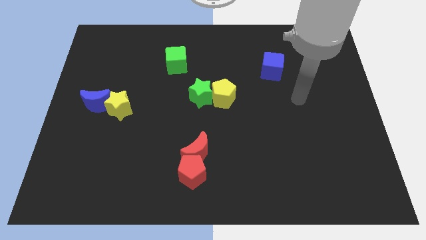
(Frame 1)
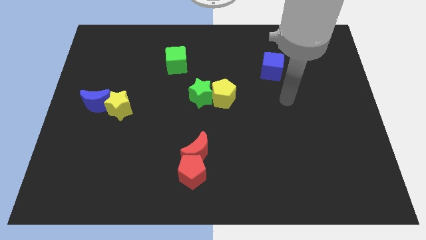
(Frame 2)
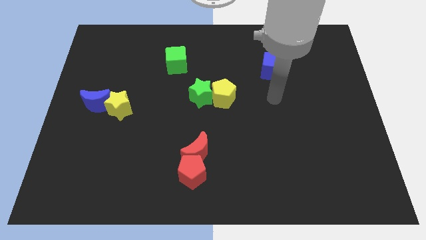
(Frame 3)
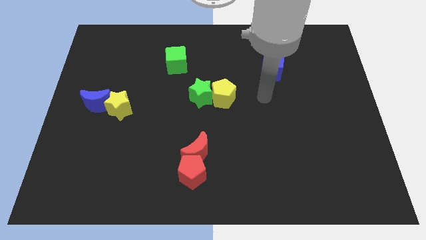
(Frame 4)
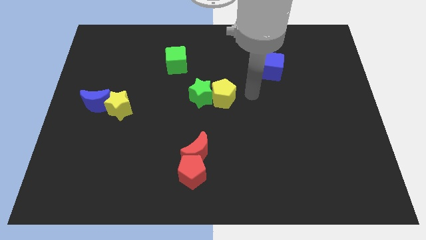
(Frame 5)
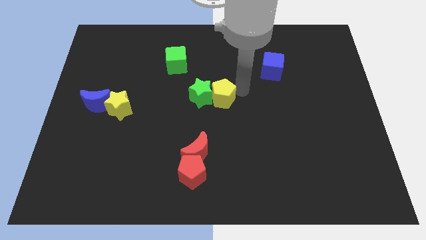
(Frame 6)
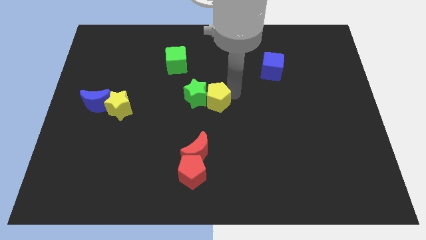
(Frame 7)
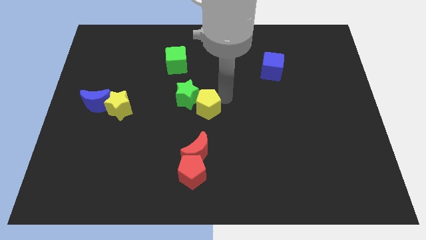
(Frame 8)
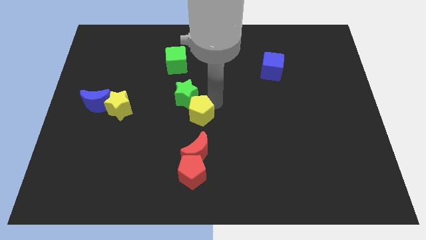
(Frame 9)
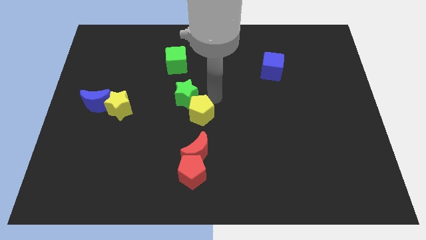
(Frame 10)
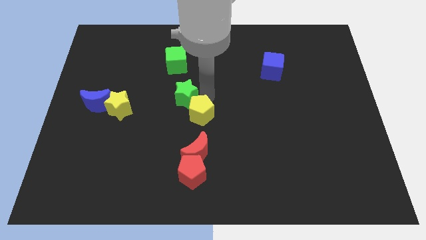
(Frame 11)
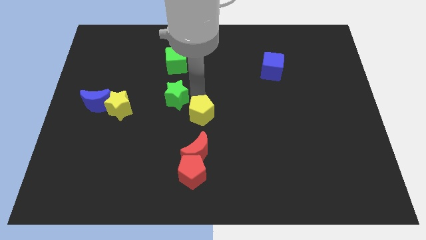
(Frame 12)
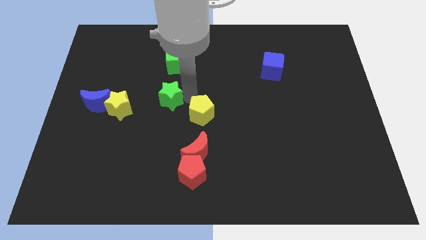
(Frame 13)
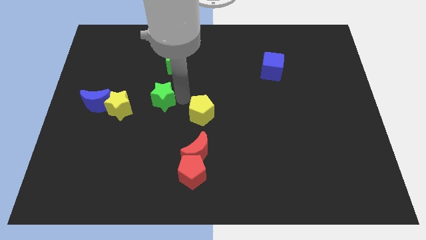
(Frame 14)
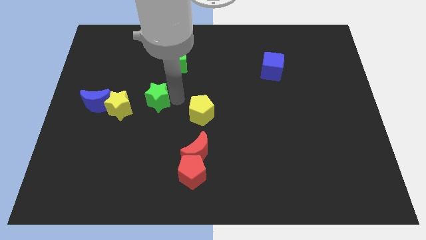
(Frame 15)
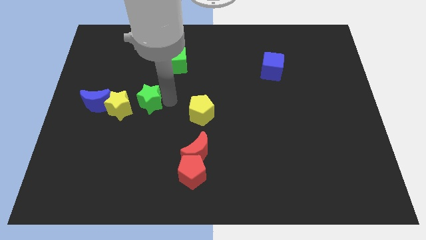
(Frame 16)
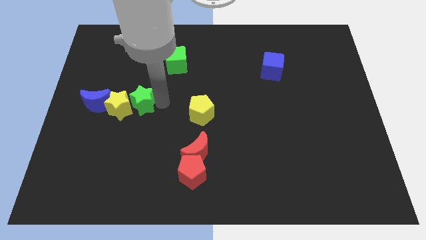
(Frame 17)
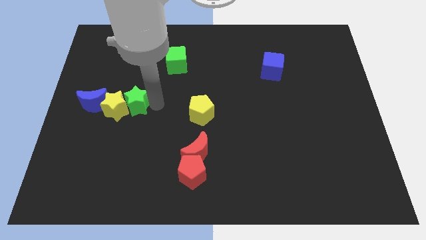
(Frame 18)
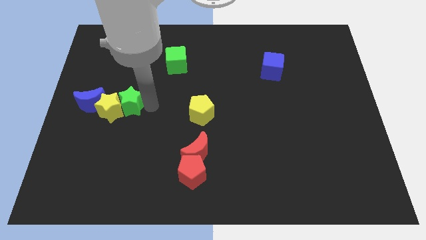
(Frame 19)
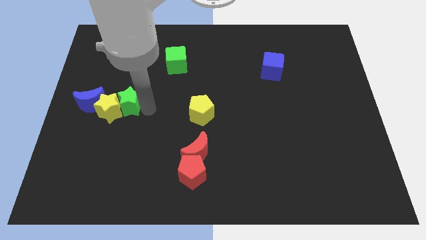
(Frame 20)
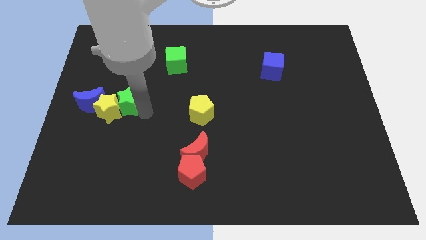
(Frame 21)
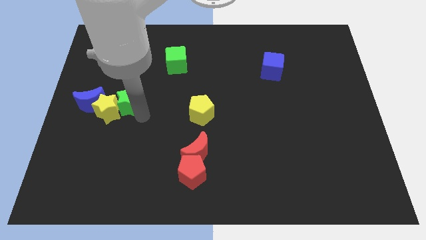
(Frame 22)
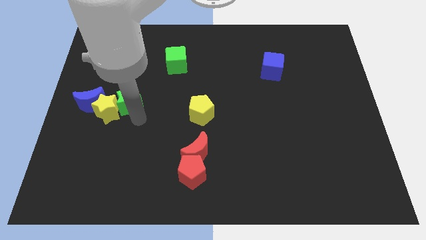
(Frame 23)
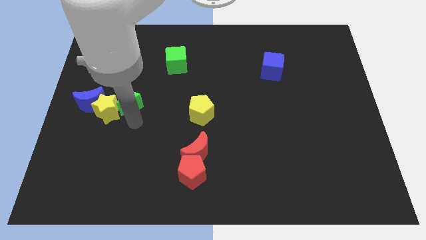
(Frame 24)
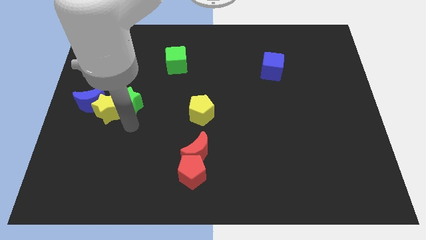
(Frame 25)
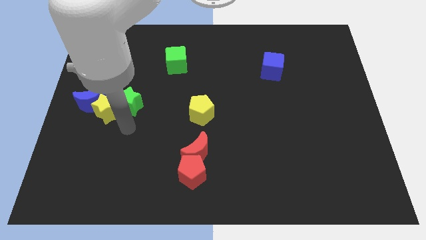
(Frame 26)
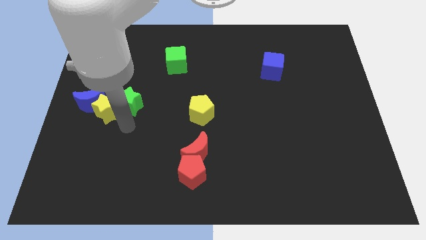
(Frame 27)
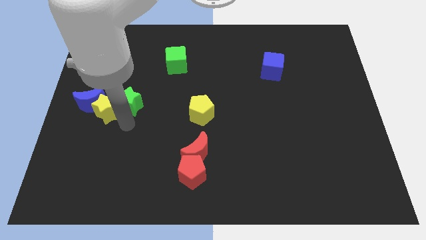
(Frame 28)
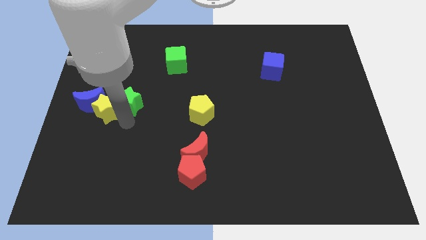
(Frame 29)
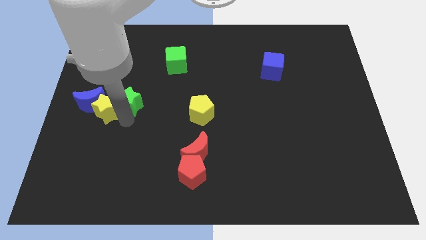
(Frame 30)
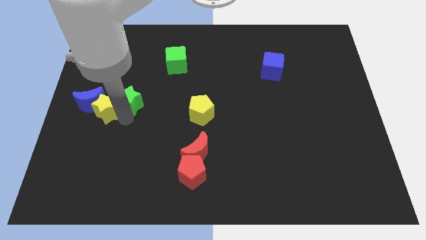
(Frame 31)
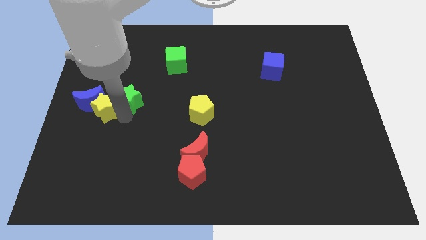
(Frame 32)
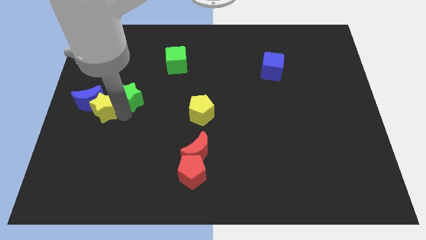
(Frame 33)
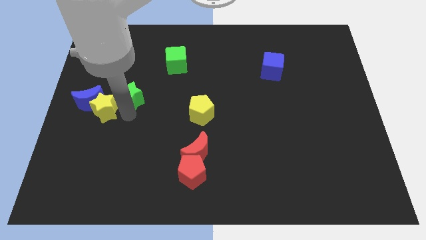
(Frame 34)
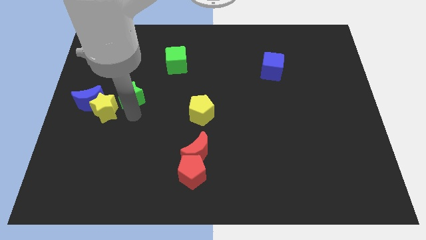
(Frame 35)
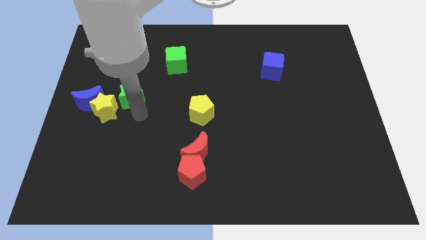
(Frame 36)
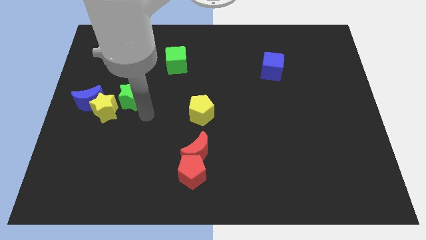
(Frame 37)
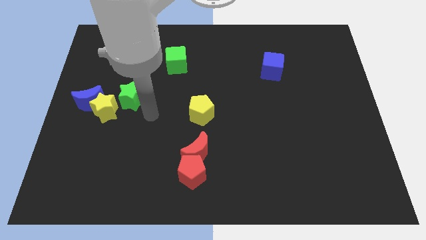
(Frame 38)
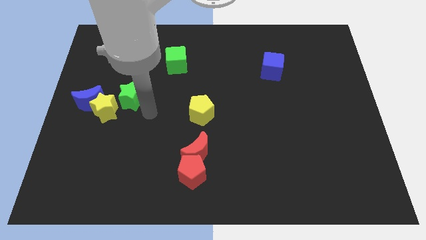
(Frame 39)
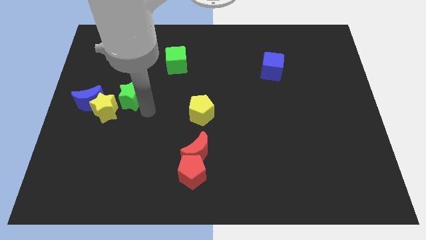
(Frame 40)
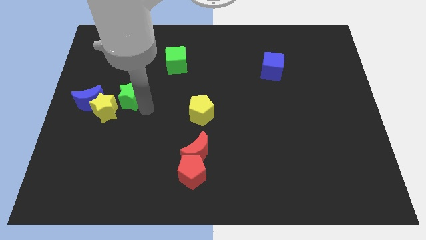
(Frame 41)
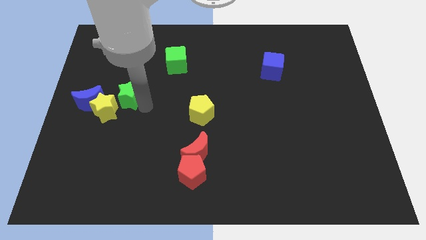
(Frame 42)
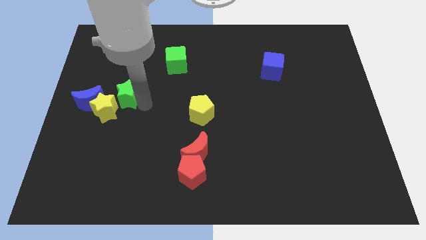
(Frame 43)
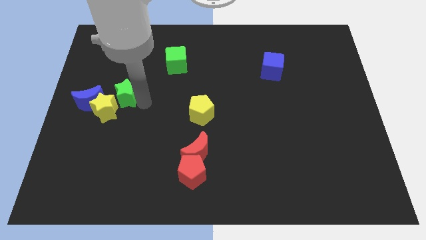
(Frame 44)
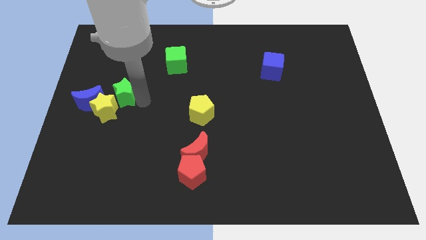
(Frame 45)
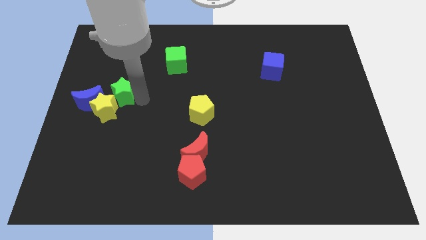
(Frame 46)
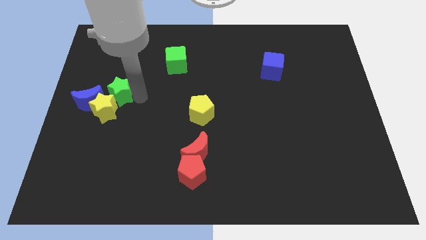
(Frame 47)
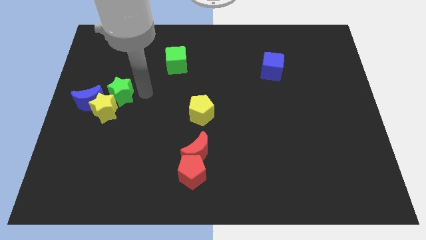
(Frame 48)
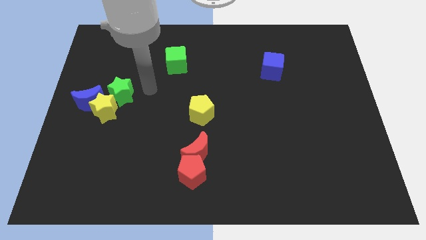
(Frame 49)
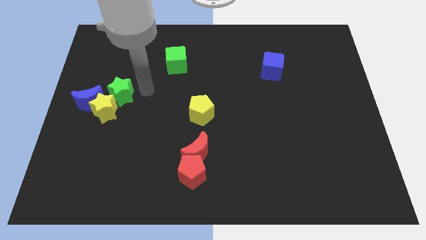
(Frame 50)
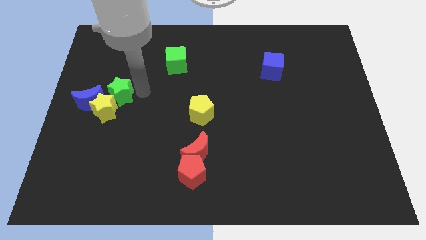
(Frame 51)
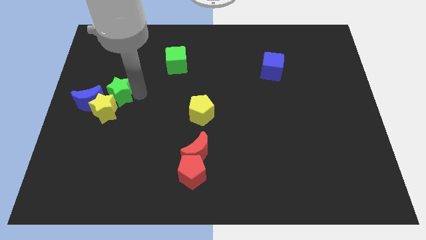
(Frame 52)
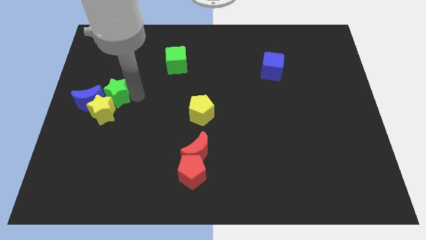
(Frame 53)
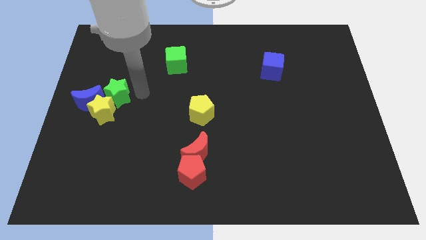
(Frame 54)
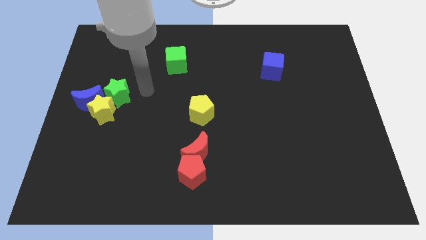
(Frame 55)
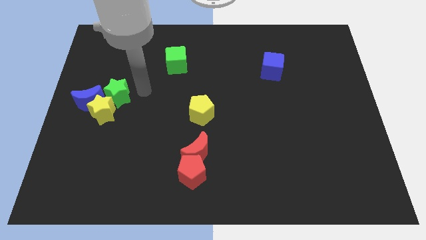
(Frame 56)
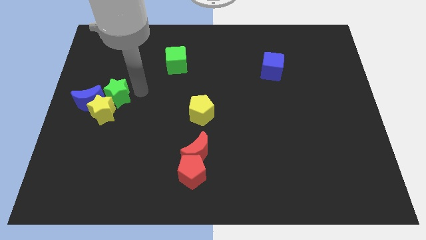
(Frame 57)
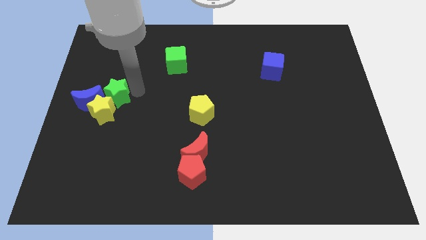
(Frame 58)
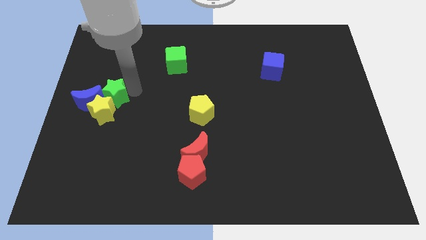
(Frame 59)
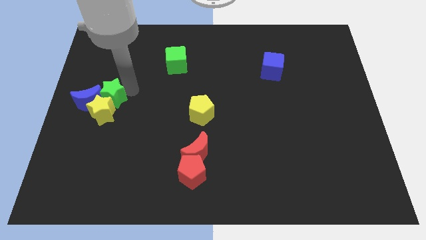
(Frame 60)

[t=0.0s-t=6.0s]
push the green star to the blue moon

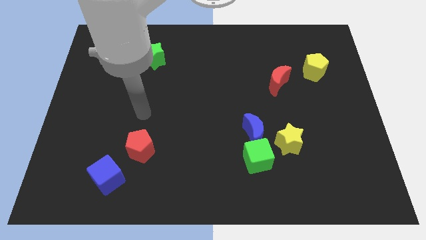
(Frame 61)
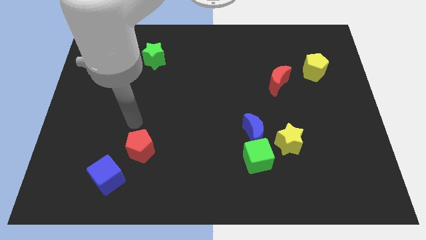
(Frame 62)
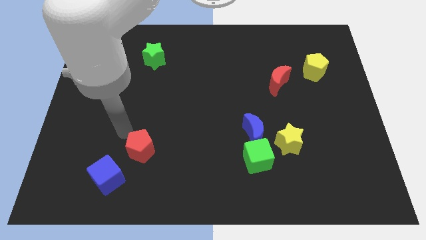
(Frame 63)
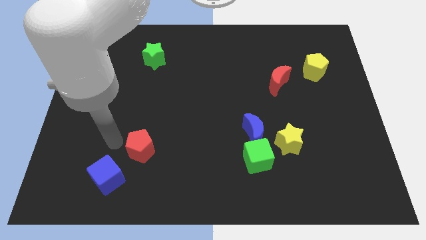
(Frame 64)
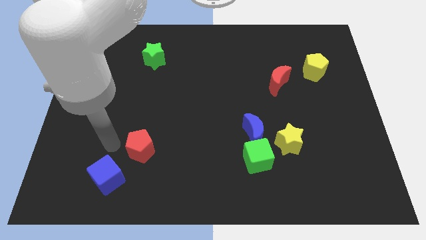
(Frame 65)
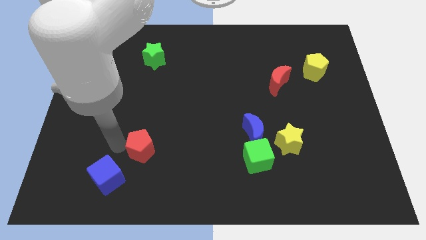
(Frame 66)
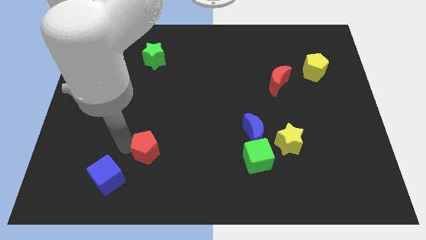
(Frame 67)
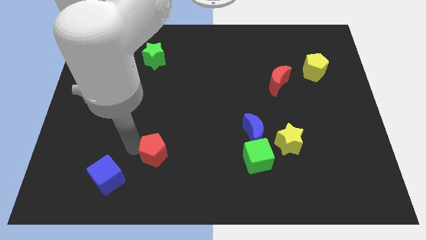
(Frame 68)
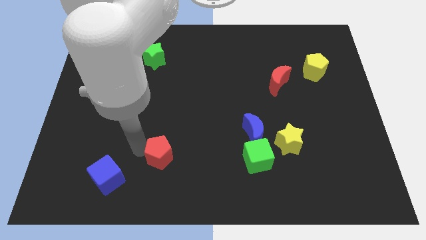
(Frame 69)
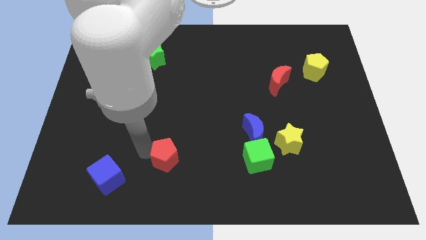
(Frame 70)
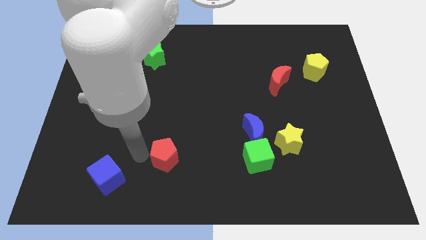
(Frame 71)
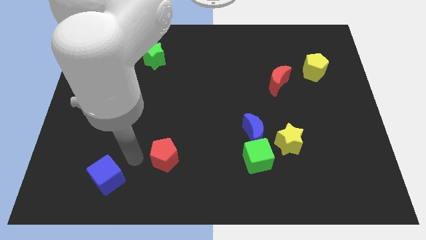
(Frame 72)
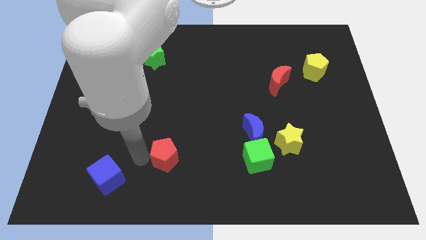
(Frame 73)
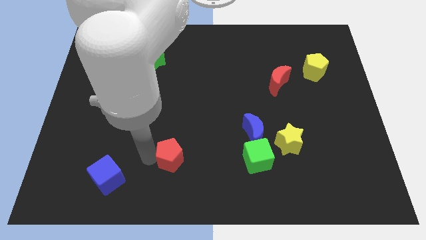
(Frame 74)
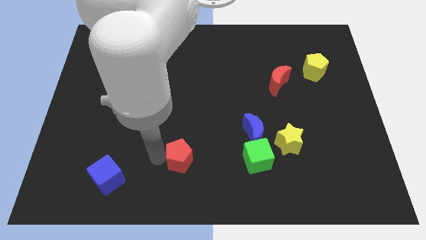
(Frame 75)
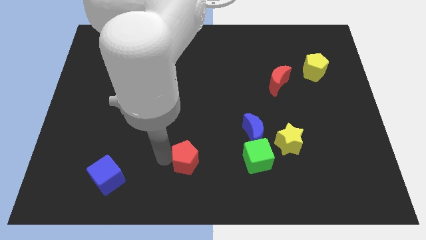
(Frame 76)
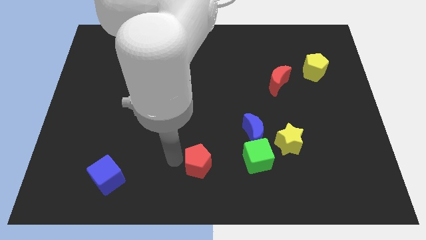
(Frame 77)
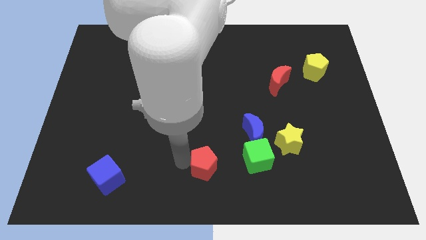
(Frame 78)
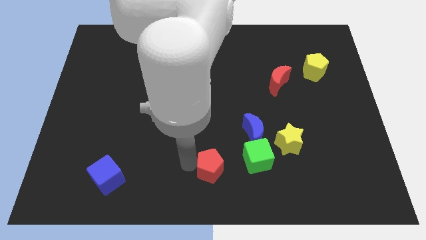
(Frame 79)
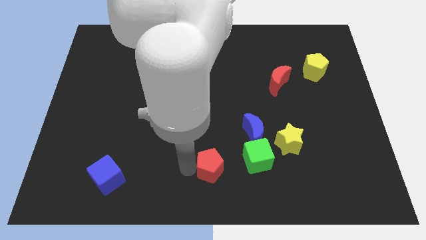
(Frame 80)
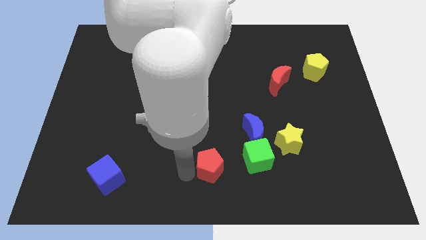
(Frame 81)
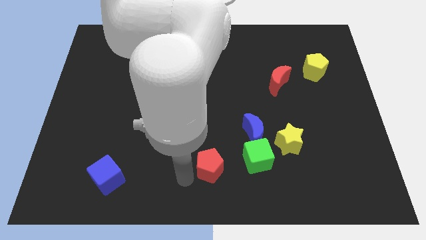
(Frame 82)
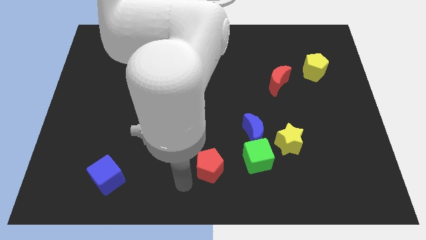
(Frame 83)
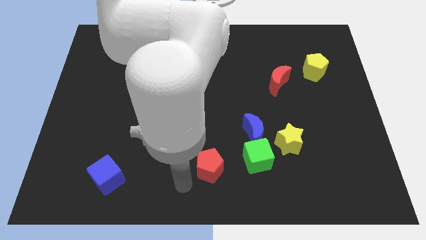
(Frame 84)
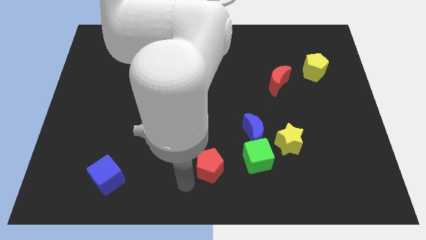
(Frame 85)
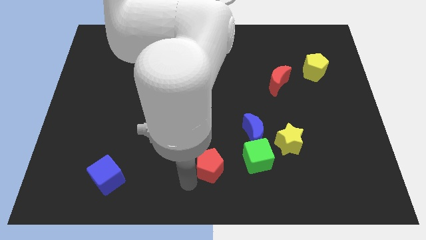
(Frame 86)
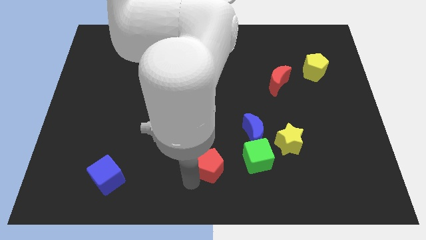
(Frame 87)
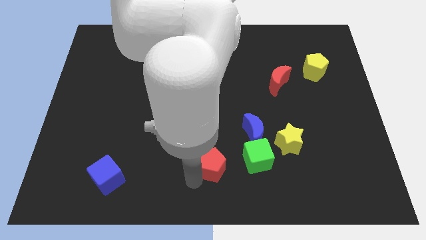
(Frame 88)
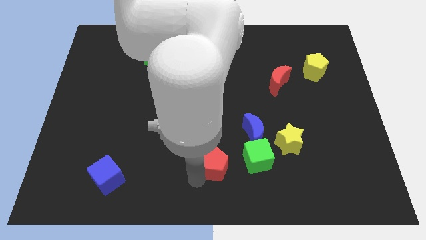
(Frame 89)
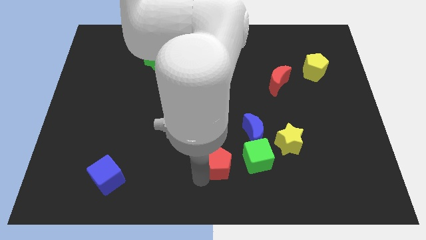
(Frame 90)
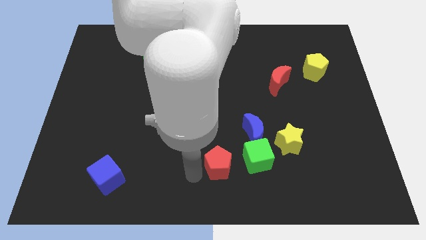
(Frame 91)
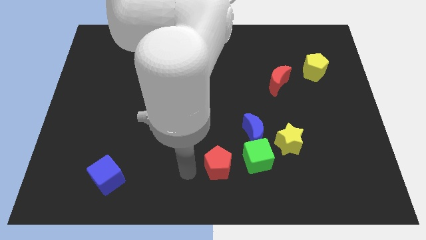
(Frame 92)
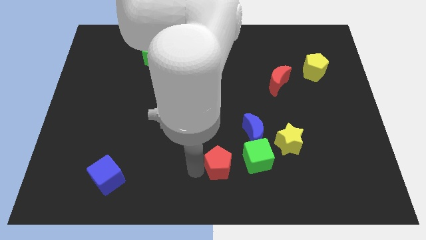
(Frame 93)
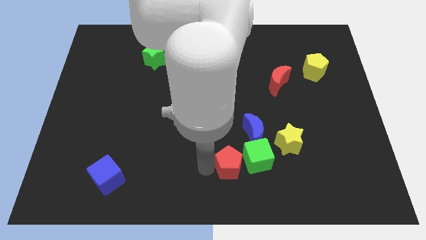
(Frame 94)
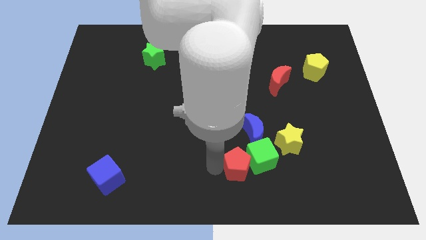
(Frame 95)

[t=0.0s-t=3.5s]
push the red pentagon towards the green cube
